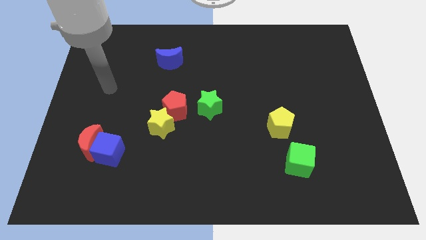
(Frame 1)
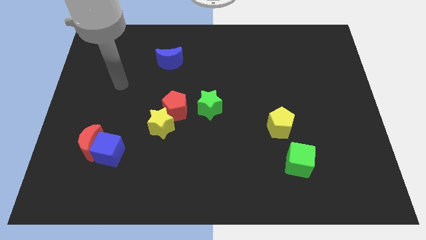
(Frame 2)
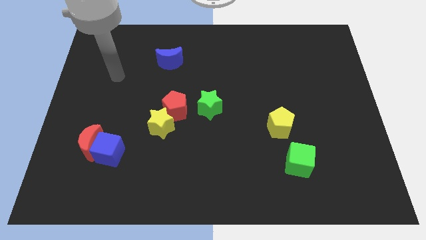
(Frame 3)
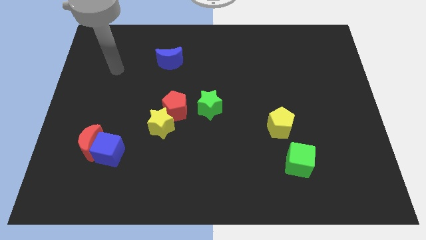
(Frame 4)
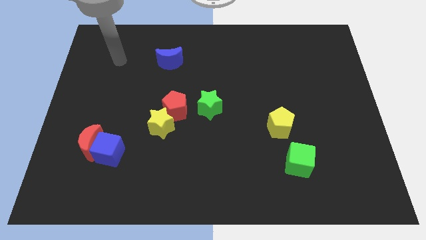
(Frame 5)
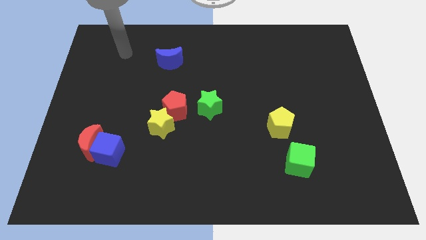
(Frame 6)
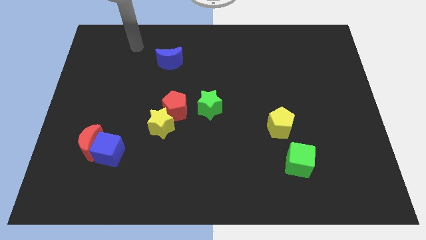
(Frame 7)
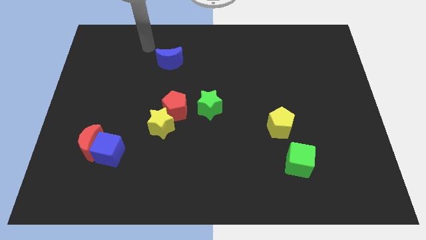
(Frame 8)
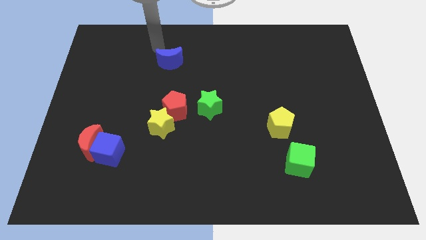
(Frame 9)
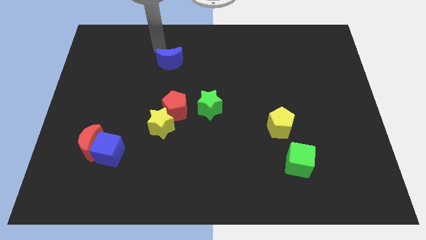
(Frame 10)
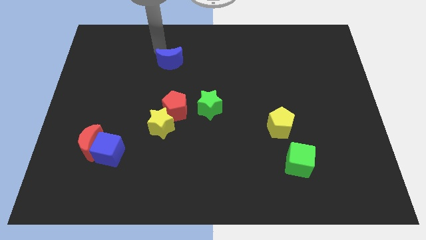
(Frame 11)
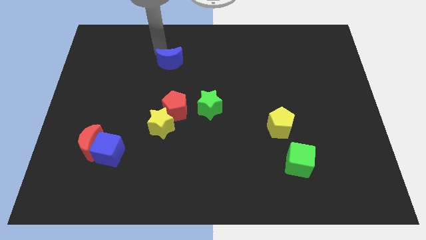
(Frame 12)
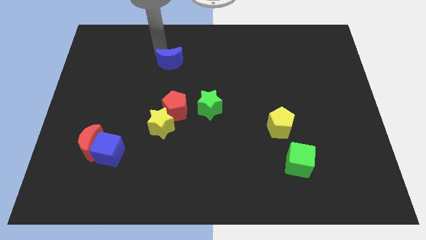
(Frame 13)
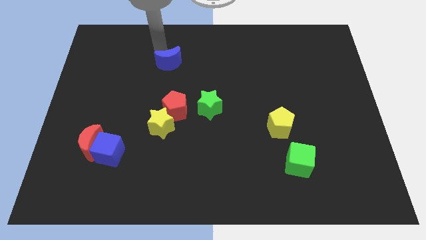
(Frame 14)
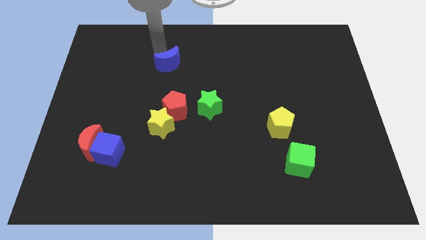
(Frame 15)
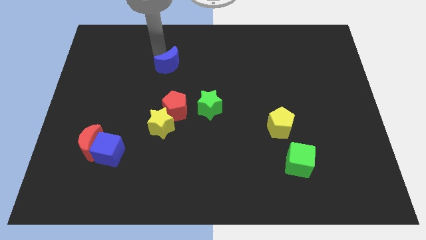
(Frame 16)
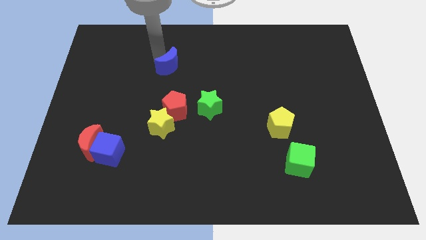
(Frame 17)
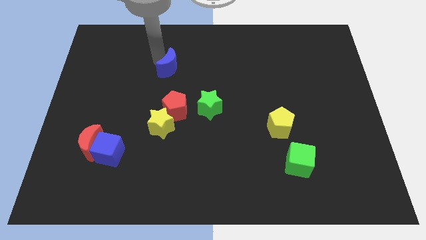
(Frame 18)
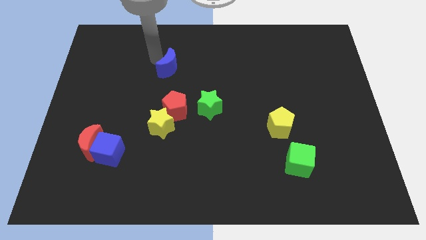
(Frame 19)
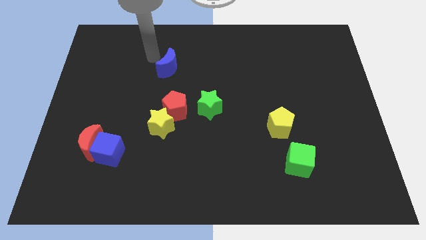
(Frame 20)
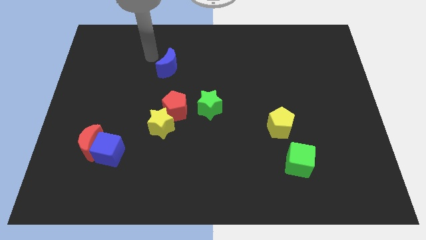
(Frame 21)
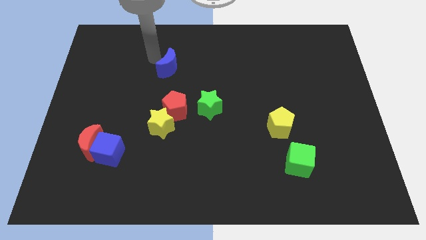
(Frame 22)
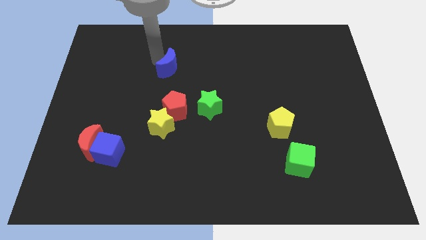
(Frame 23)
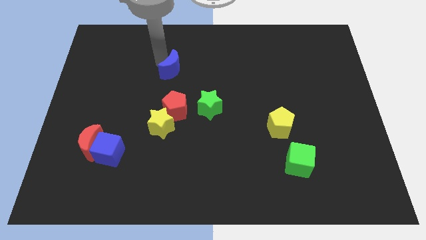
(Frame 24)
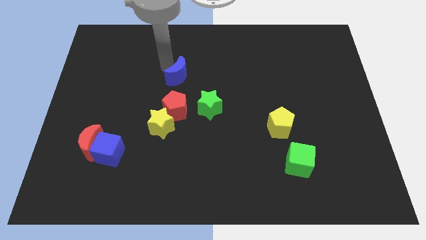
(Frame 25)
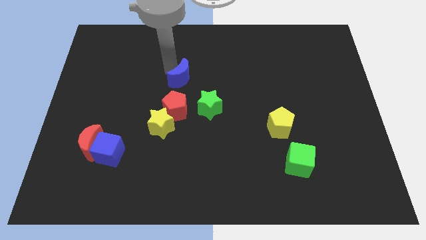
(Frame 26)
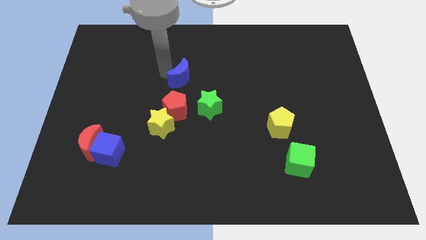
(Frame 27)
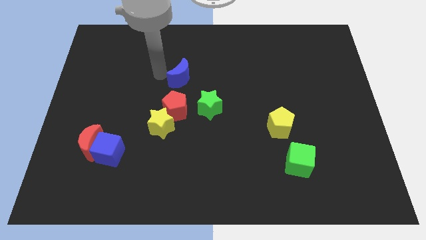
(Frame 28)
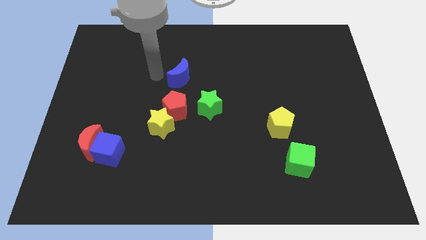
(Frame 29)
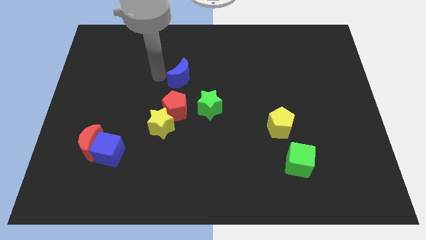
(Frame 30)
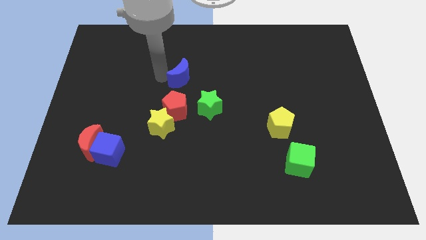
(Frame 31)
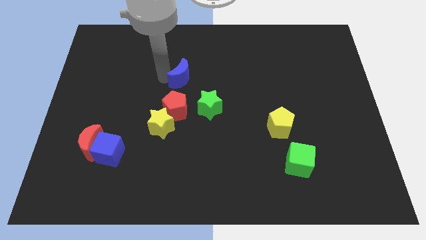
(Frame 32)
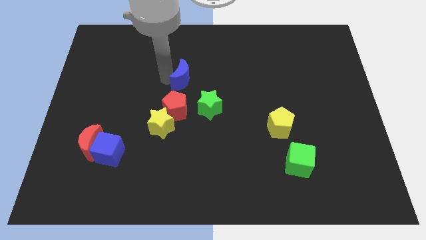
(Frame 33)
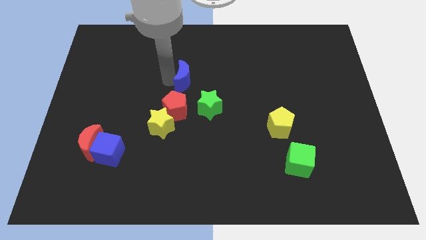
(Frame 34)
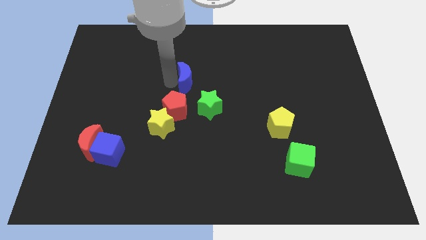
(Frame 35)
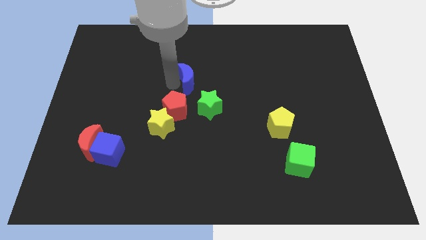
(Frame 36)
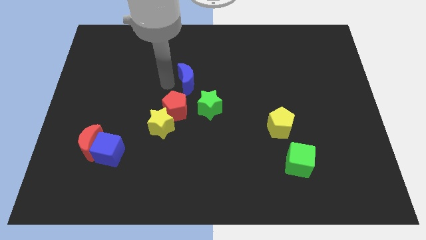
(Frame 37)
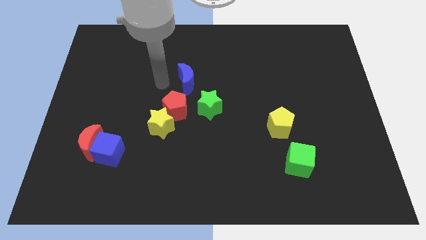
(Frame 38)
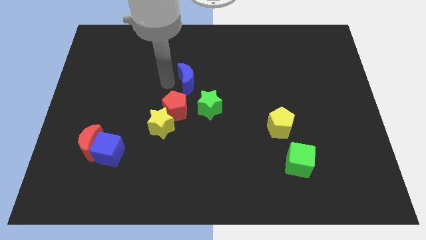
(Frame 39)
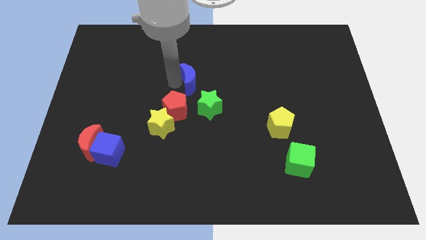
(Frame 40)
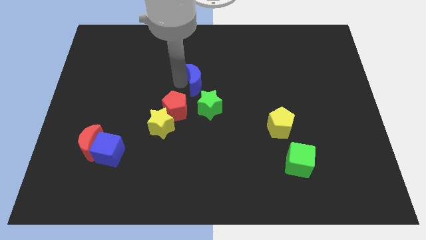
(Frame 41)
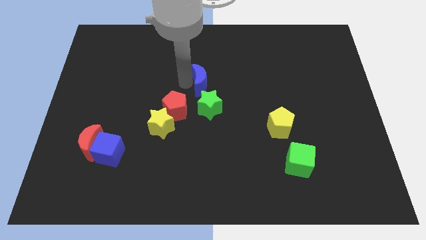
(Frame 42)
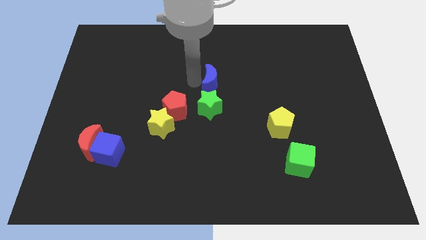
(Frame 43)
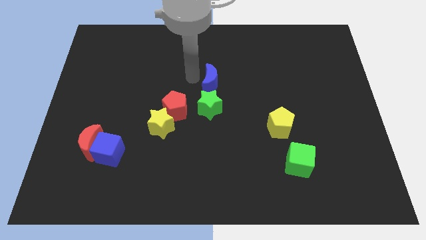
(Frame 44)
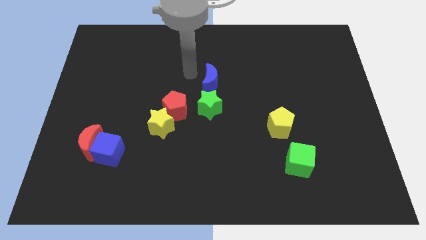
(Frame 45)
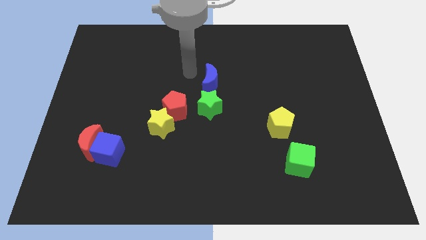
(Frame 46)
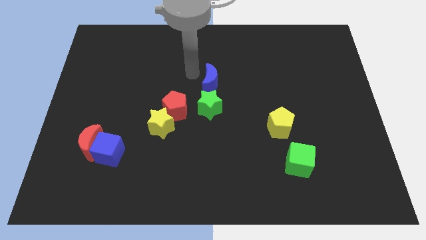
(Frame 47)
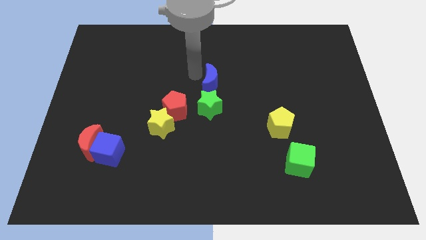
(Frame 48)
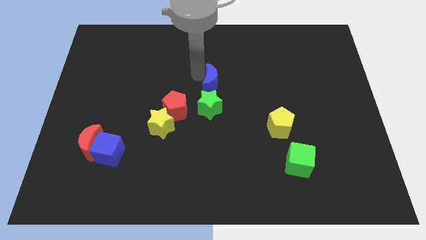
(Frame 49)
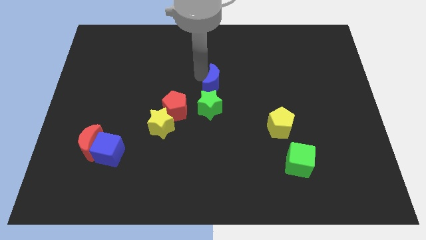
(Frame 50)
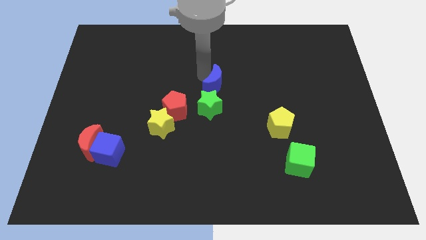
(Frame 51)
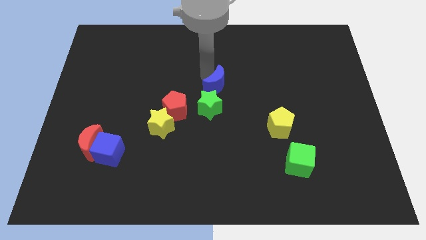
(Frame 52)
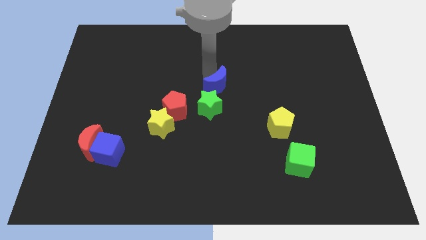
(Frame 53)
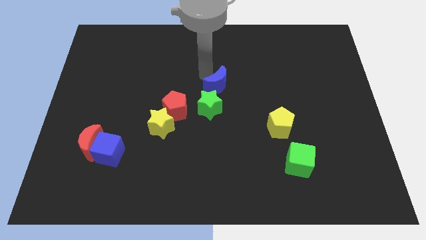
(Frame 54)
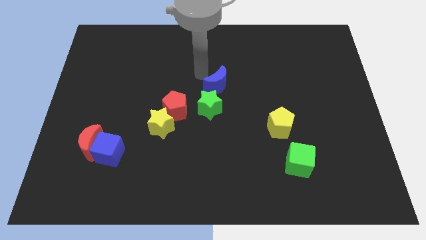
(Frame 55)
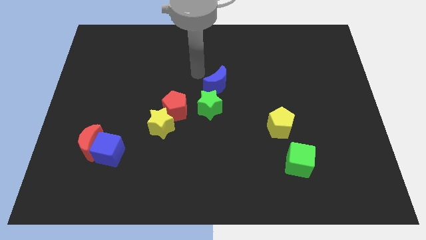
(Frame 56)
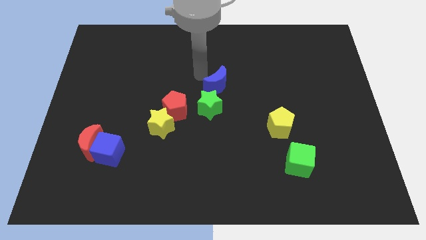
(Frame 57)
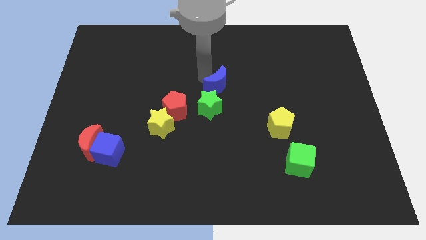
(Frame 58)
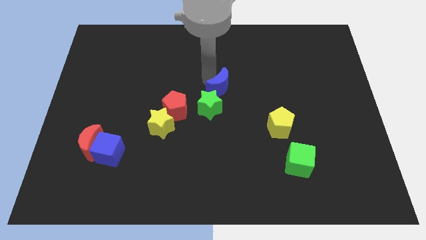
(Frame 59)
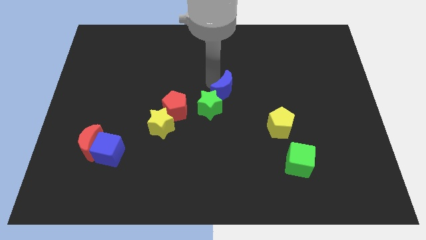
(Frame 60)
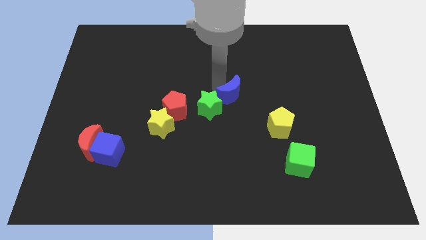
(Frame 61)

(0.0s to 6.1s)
slide the blue moon just right of the green star
